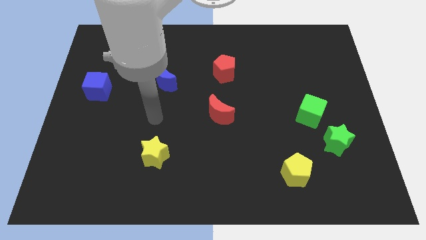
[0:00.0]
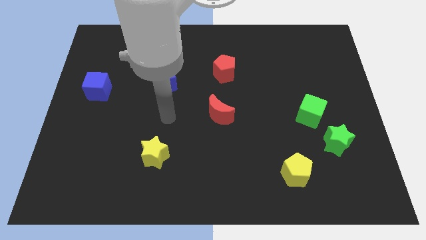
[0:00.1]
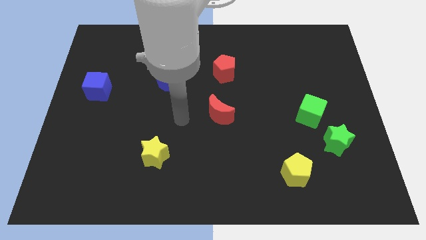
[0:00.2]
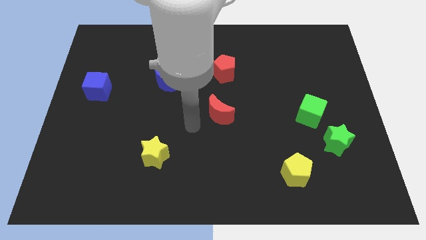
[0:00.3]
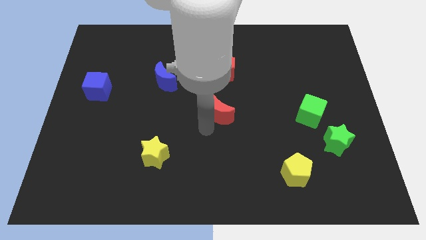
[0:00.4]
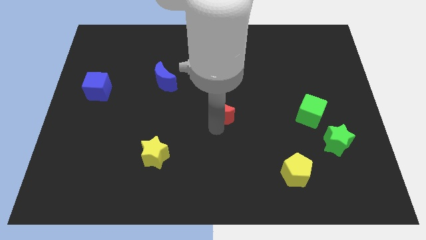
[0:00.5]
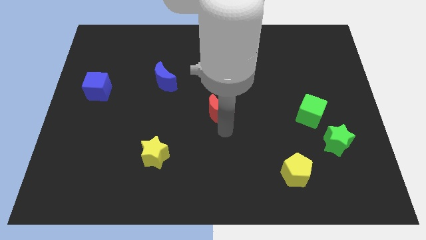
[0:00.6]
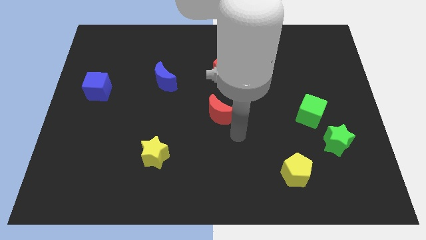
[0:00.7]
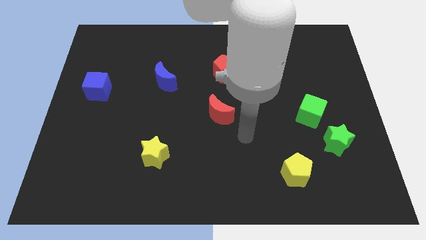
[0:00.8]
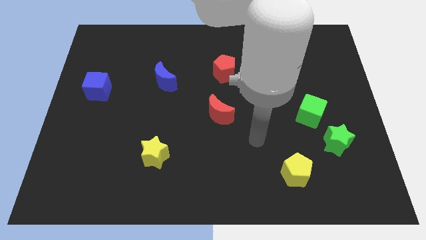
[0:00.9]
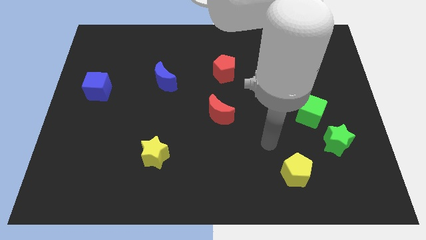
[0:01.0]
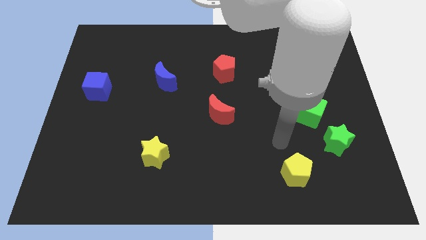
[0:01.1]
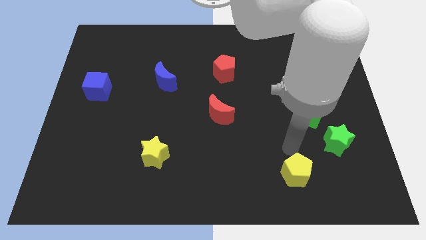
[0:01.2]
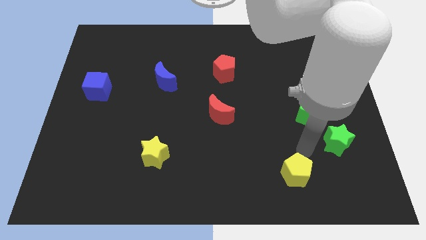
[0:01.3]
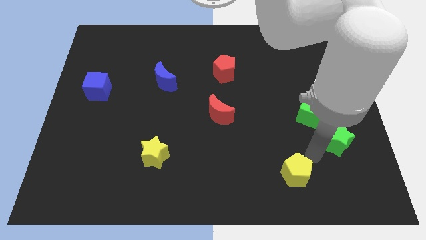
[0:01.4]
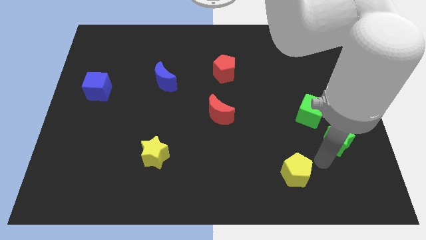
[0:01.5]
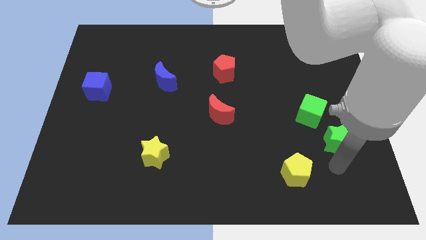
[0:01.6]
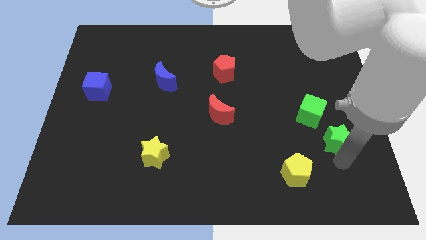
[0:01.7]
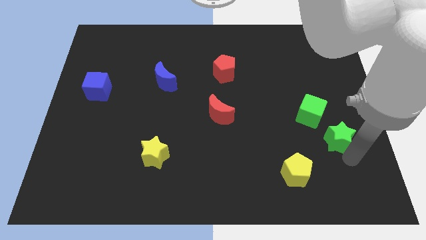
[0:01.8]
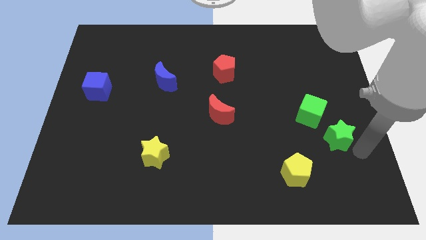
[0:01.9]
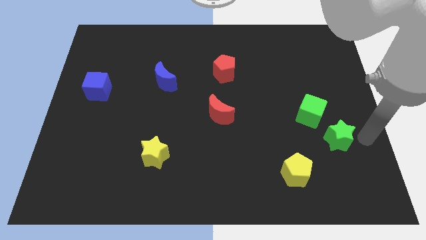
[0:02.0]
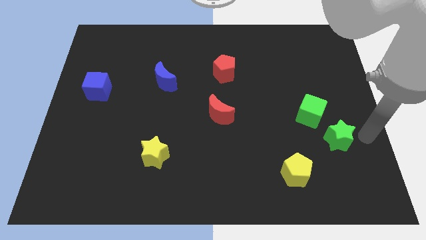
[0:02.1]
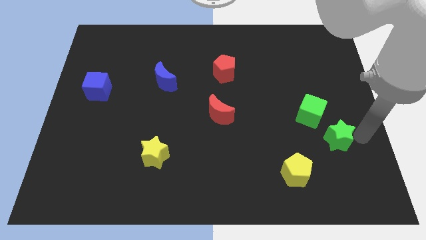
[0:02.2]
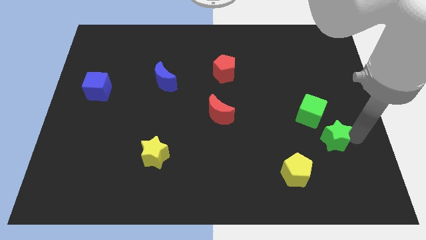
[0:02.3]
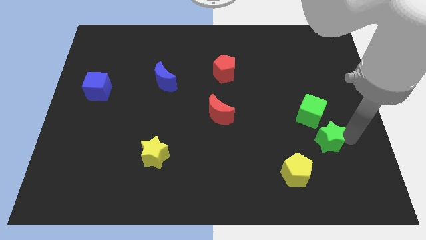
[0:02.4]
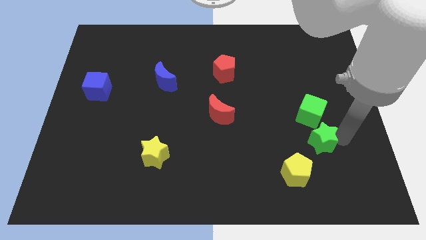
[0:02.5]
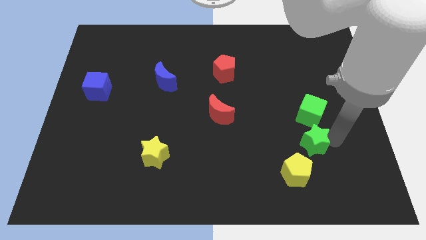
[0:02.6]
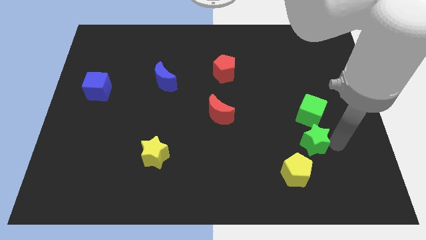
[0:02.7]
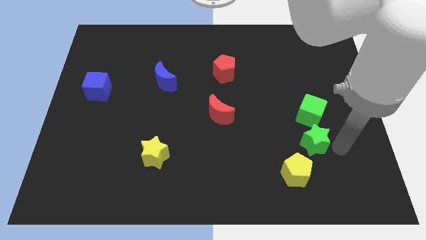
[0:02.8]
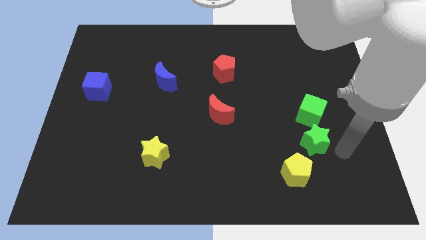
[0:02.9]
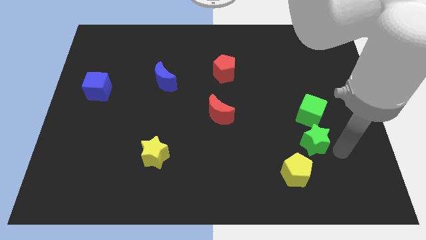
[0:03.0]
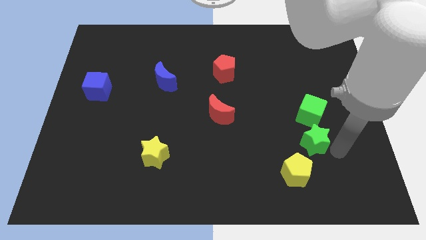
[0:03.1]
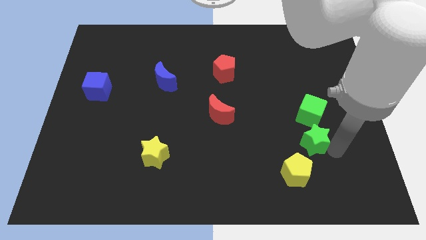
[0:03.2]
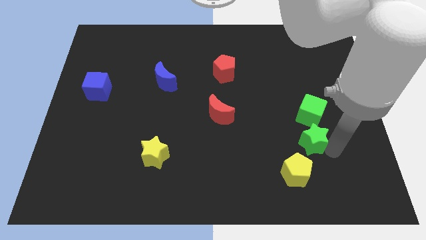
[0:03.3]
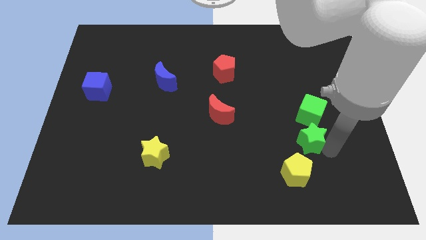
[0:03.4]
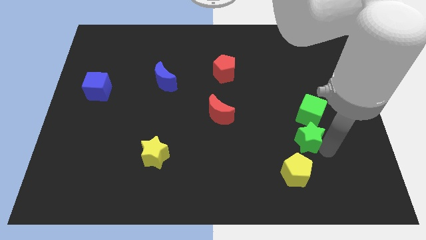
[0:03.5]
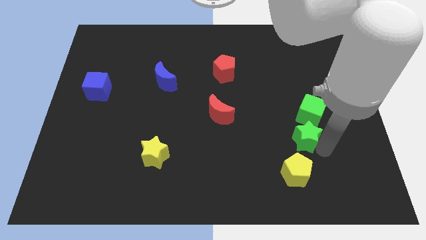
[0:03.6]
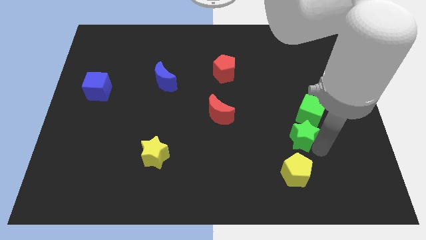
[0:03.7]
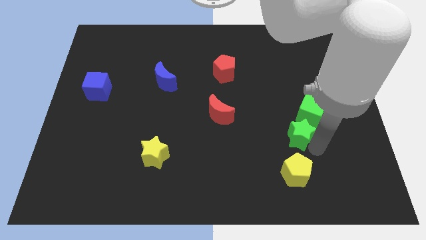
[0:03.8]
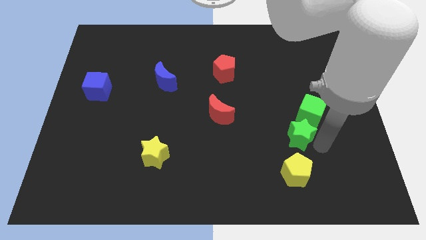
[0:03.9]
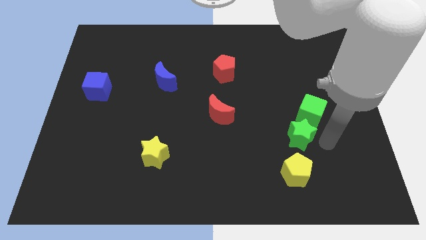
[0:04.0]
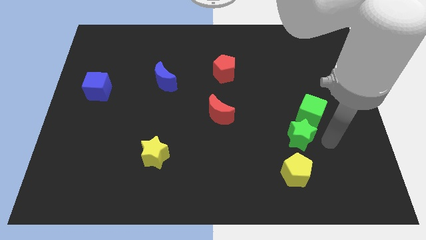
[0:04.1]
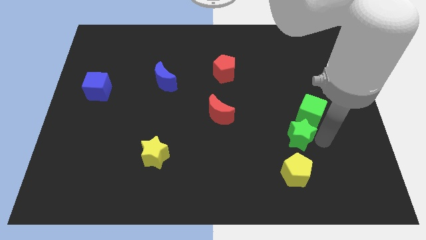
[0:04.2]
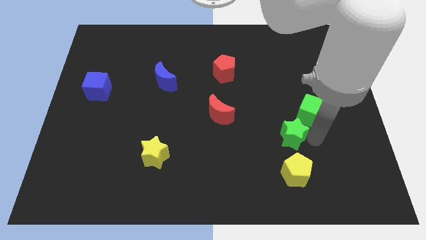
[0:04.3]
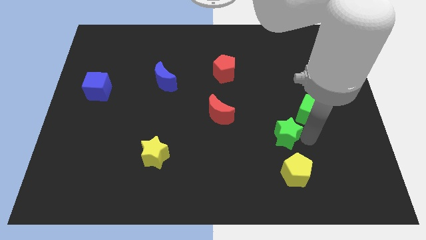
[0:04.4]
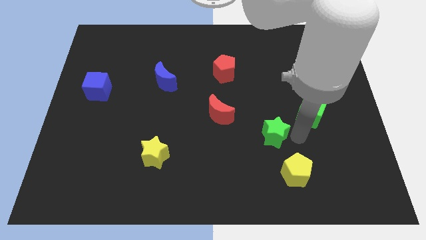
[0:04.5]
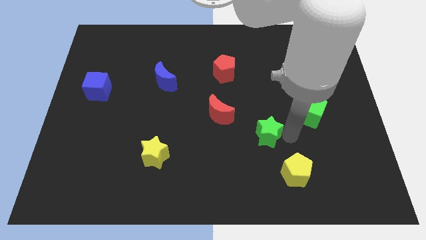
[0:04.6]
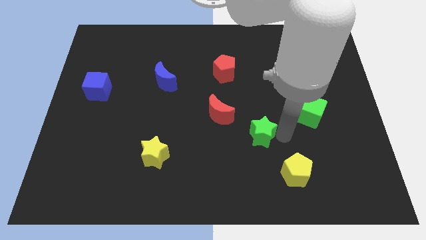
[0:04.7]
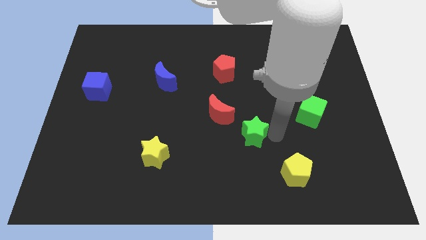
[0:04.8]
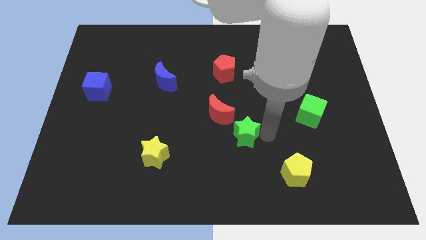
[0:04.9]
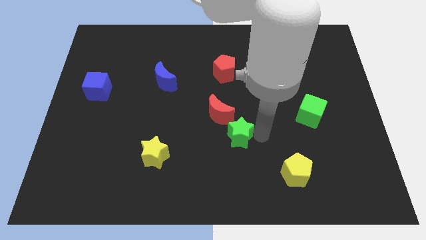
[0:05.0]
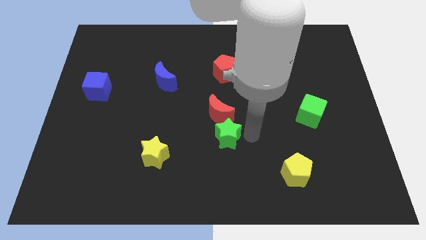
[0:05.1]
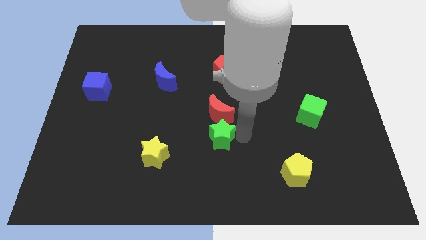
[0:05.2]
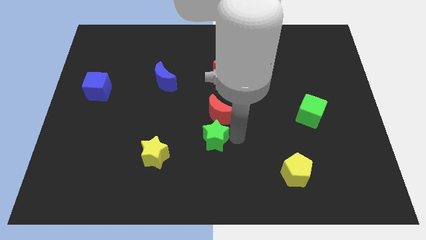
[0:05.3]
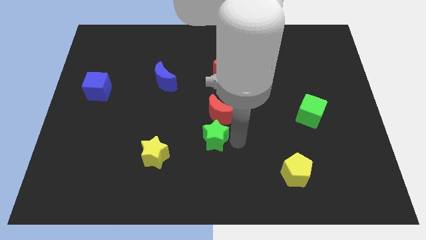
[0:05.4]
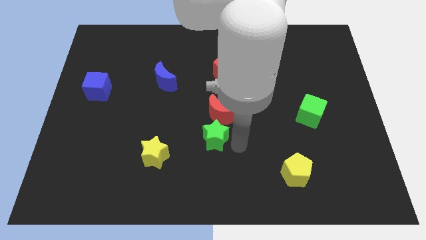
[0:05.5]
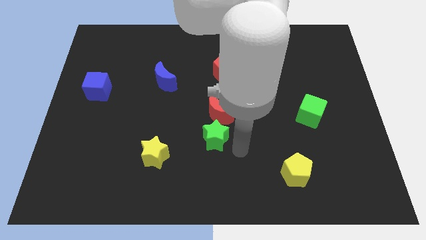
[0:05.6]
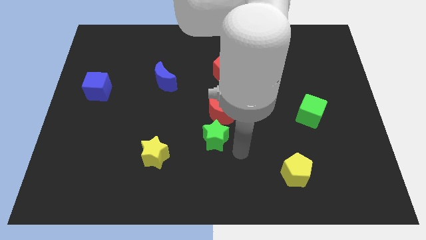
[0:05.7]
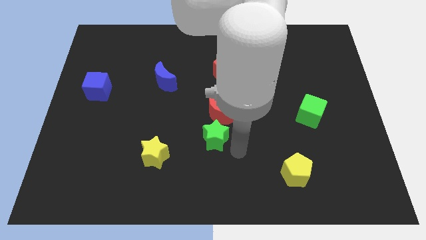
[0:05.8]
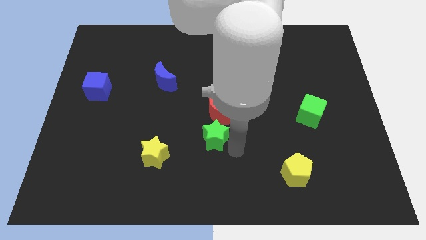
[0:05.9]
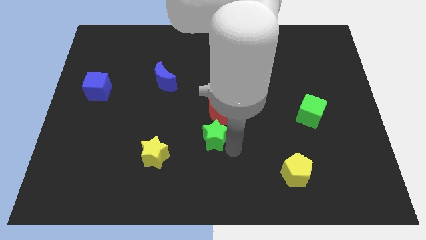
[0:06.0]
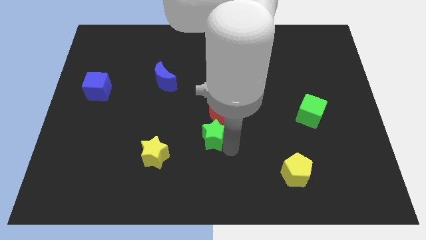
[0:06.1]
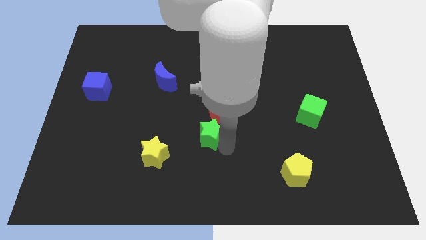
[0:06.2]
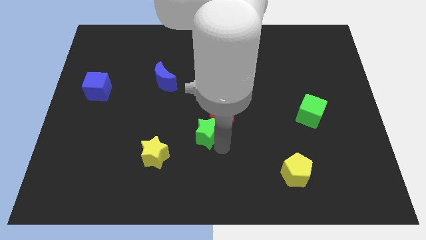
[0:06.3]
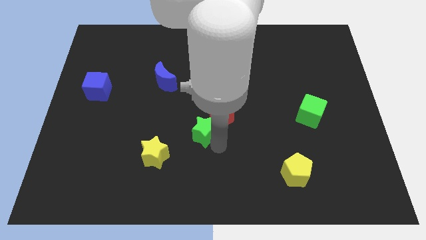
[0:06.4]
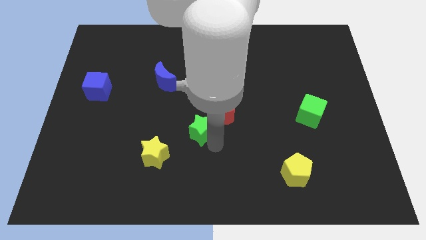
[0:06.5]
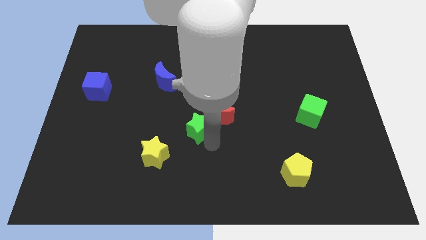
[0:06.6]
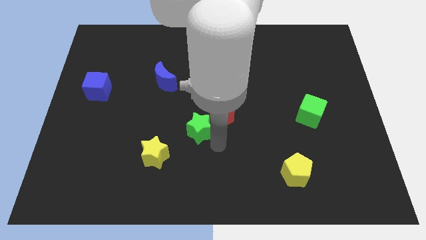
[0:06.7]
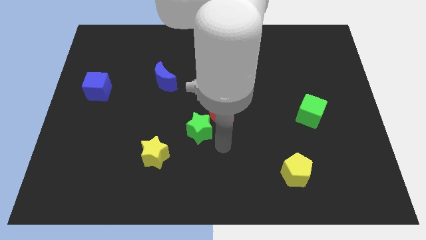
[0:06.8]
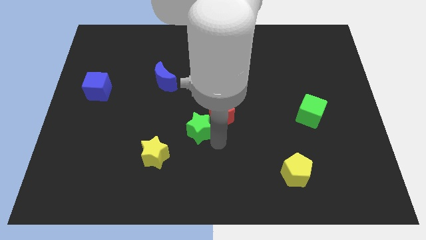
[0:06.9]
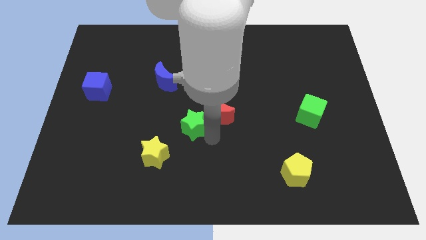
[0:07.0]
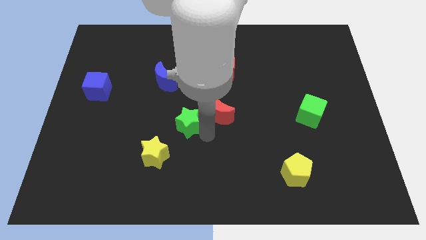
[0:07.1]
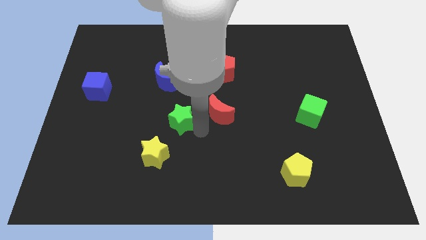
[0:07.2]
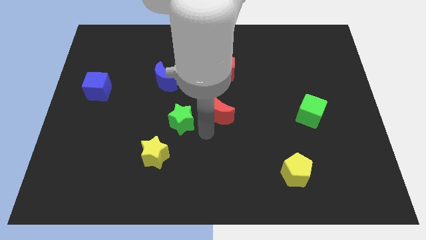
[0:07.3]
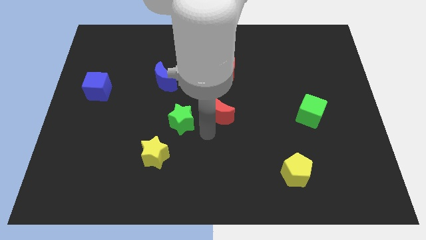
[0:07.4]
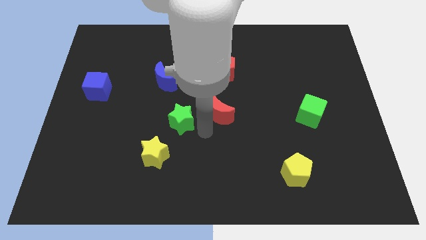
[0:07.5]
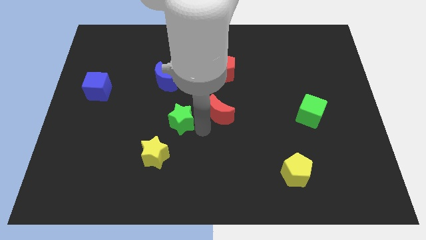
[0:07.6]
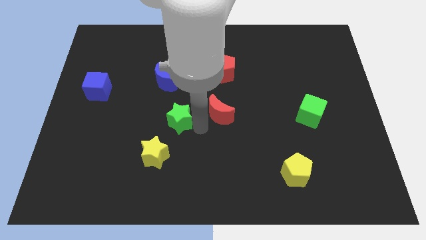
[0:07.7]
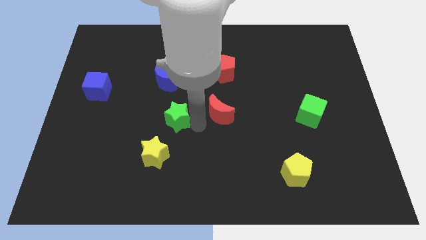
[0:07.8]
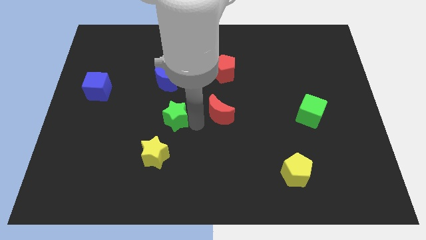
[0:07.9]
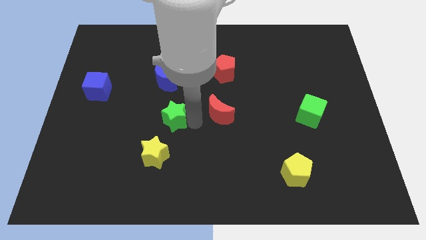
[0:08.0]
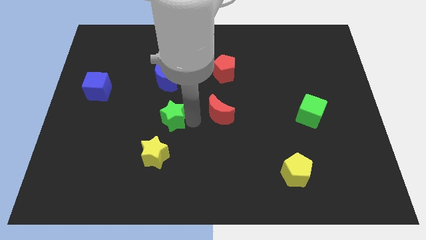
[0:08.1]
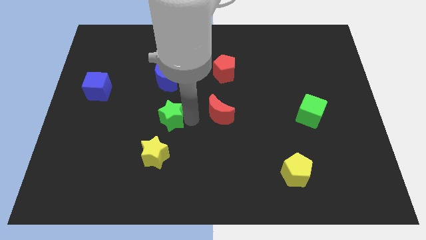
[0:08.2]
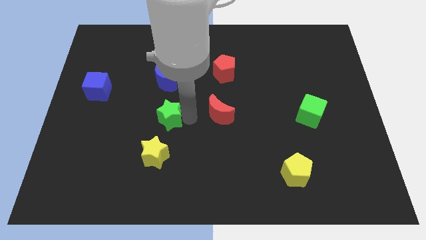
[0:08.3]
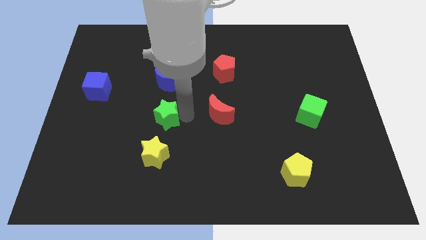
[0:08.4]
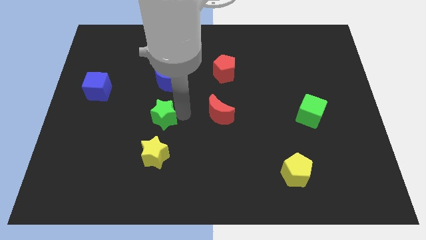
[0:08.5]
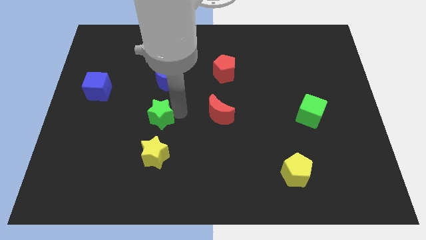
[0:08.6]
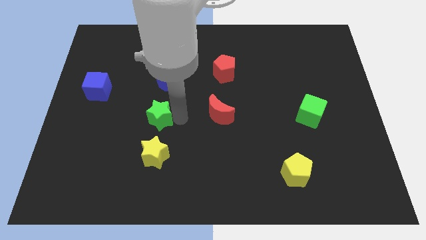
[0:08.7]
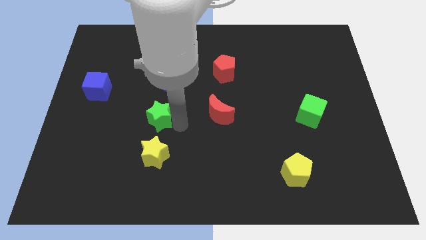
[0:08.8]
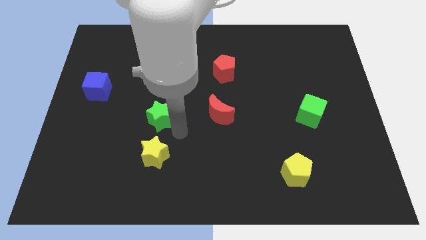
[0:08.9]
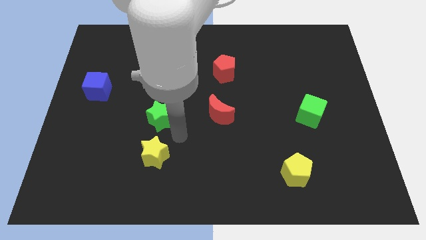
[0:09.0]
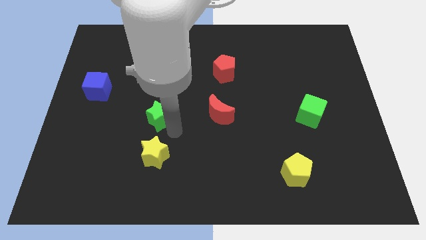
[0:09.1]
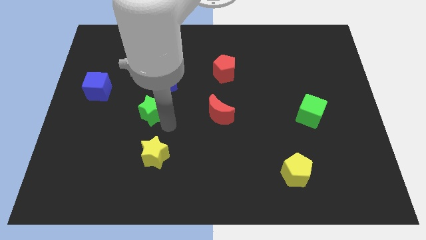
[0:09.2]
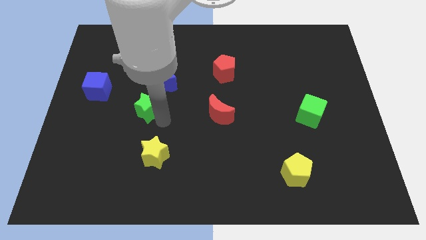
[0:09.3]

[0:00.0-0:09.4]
move the green star to the bottom left side of the blue moon
